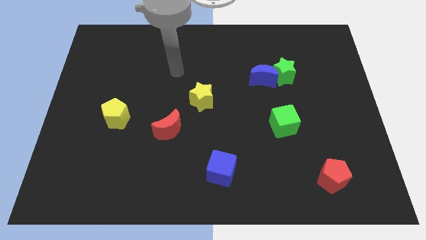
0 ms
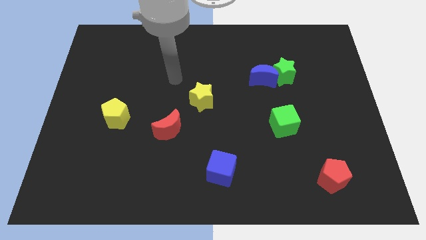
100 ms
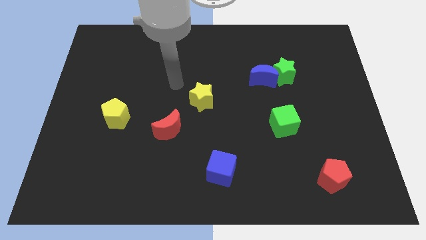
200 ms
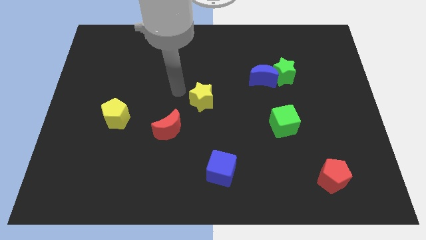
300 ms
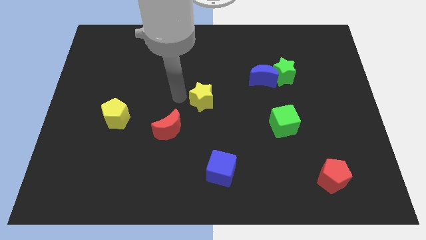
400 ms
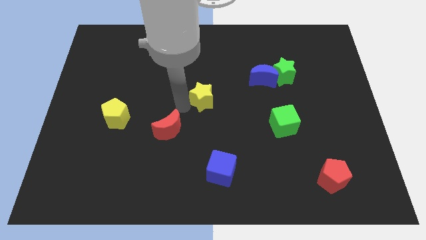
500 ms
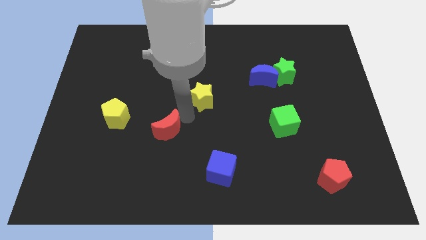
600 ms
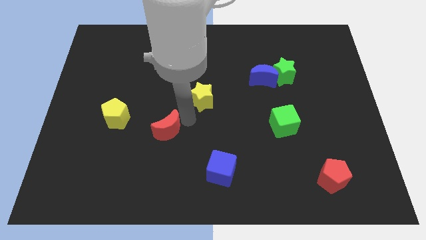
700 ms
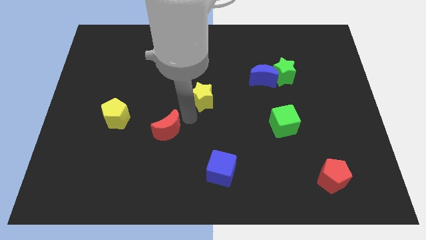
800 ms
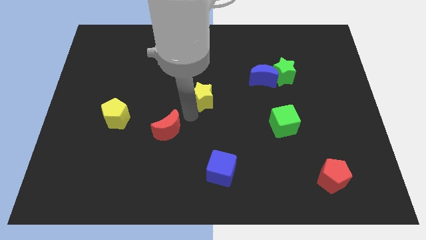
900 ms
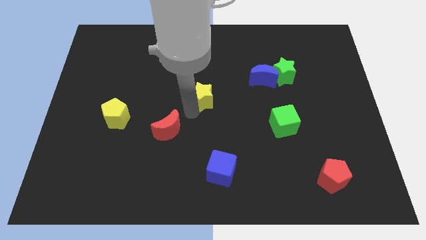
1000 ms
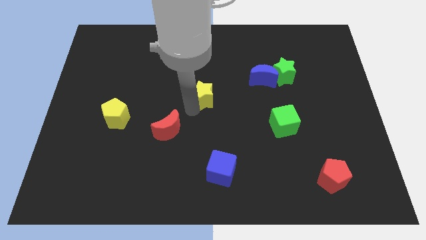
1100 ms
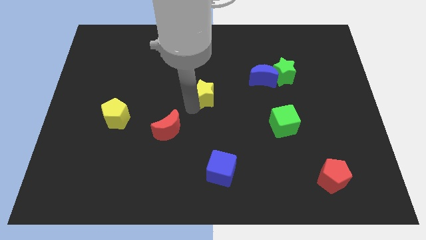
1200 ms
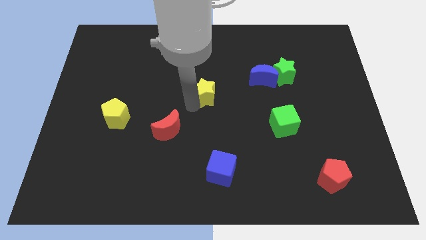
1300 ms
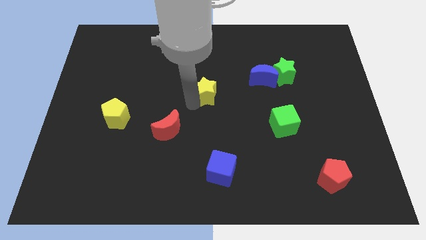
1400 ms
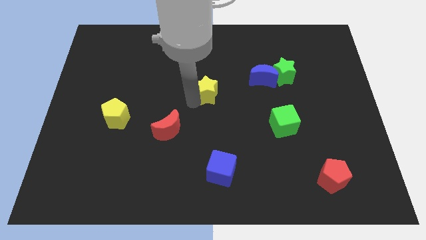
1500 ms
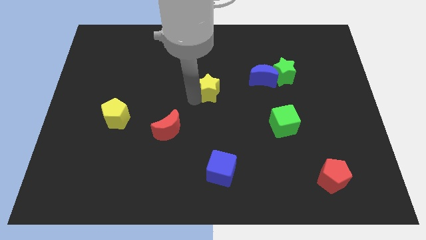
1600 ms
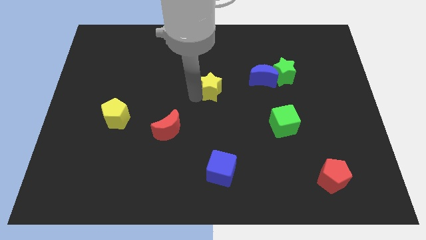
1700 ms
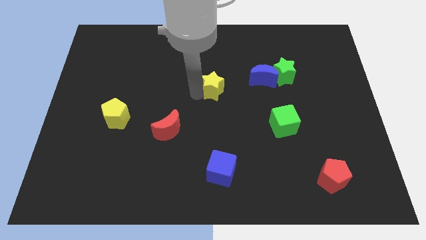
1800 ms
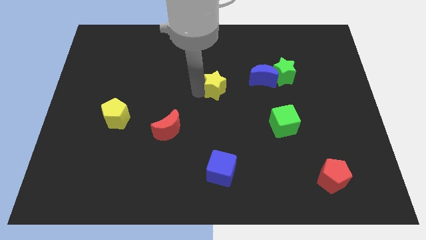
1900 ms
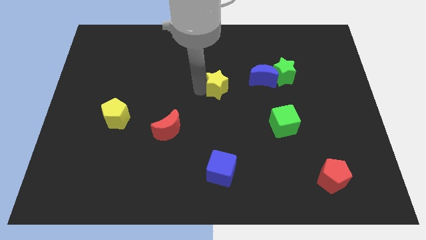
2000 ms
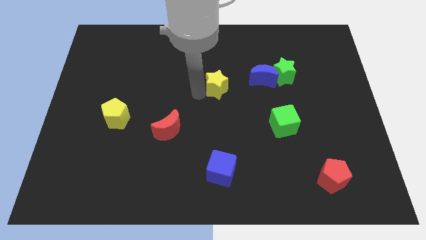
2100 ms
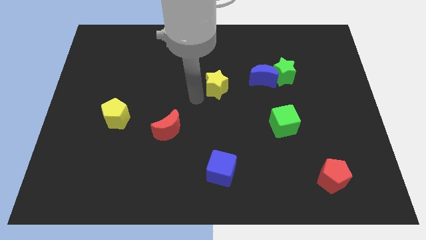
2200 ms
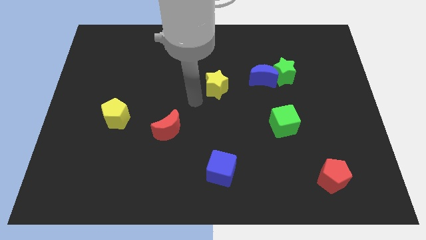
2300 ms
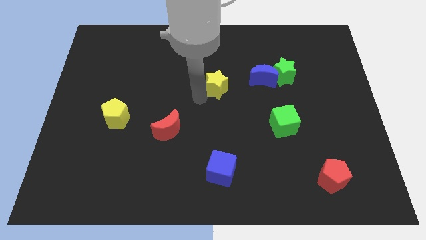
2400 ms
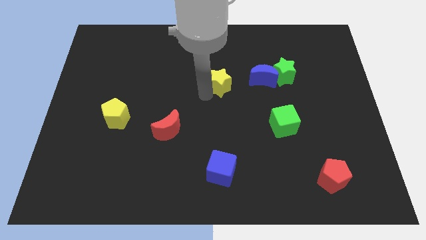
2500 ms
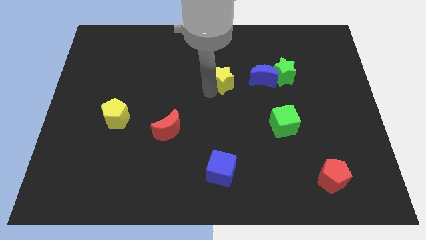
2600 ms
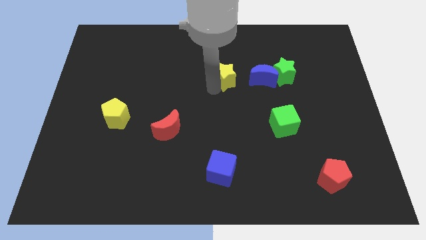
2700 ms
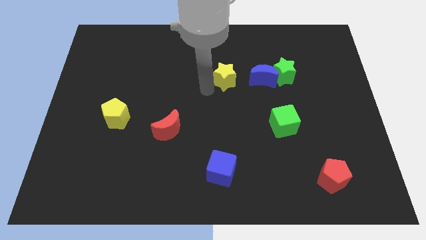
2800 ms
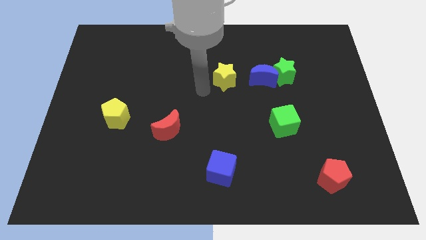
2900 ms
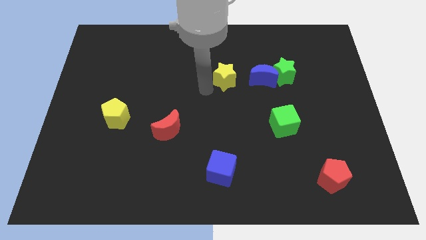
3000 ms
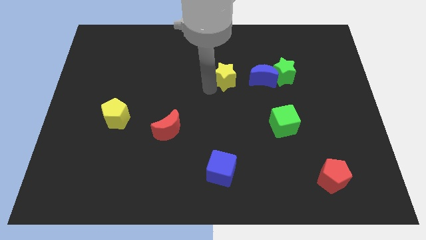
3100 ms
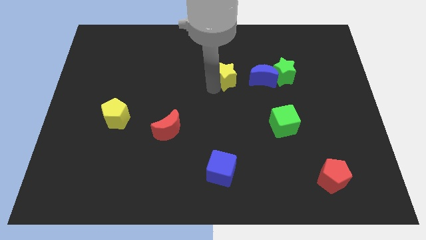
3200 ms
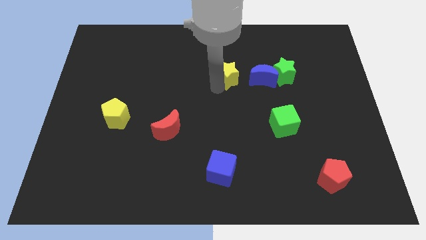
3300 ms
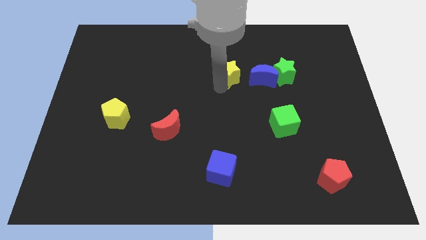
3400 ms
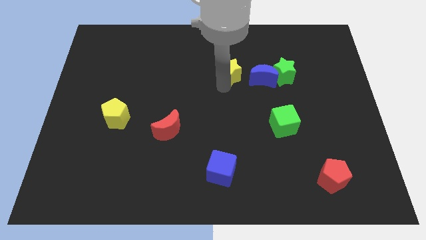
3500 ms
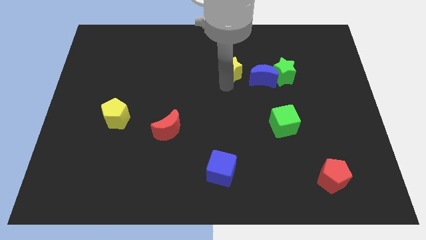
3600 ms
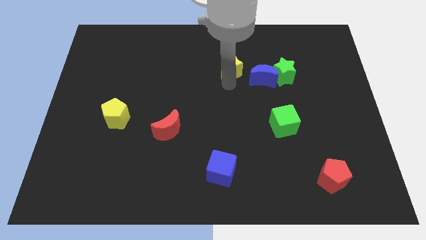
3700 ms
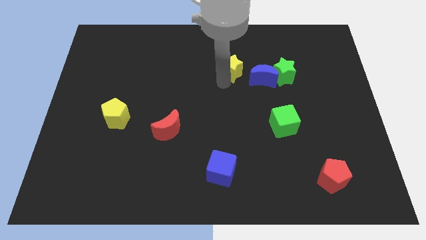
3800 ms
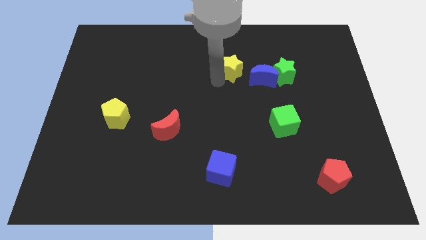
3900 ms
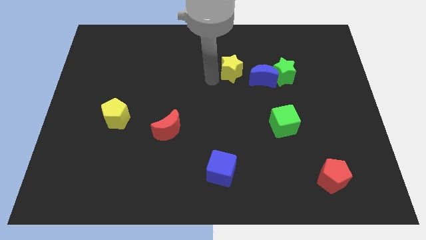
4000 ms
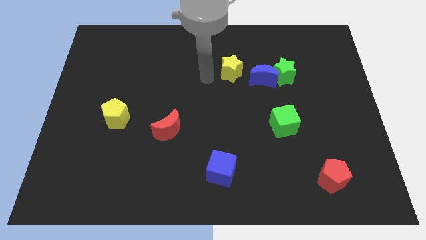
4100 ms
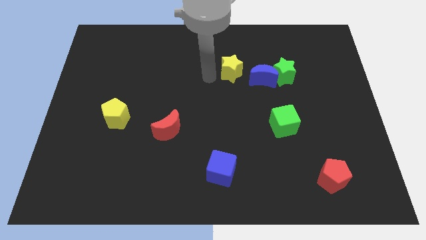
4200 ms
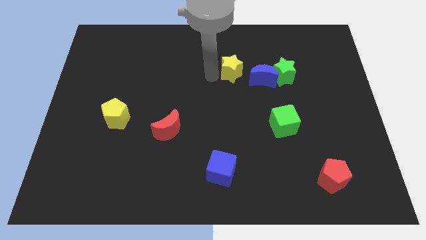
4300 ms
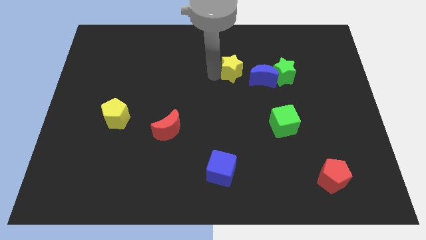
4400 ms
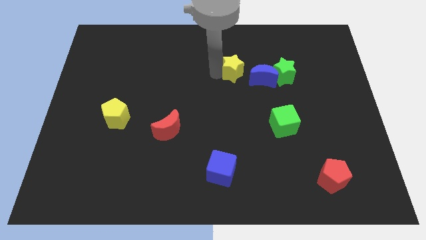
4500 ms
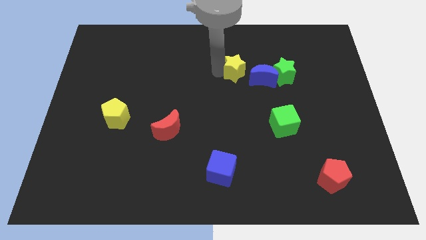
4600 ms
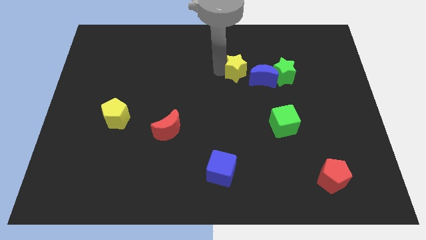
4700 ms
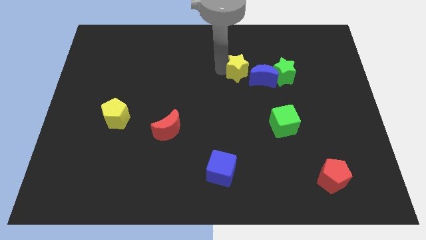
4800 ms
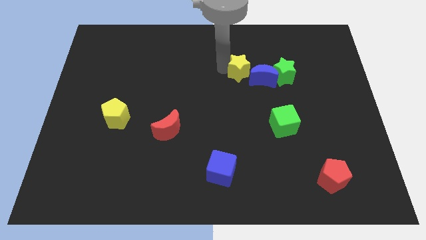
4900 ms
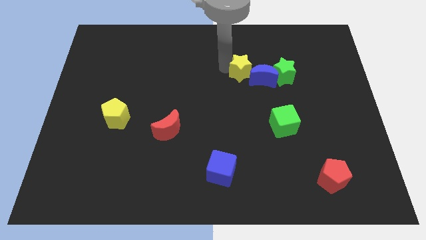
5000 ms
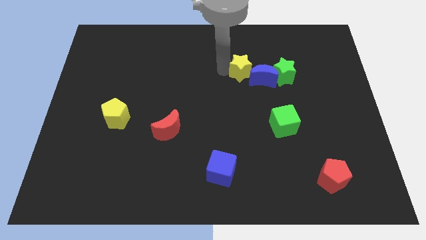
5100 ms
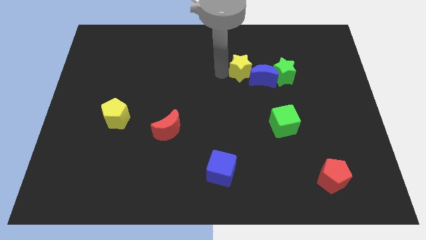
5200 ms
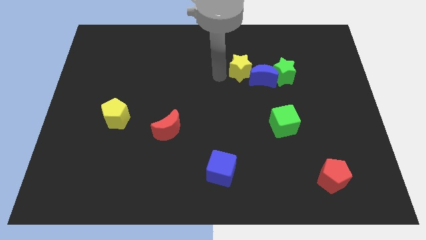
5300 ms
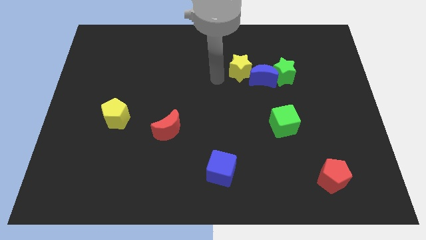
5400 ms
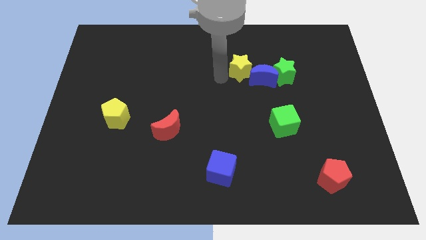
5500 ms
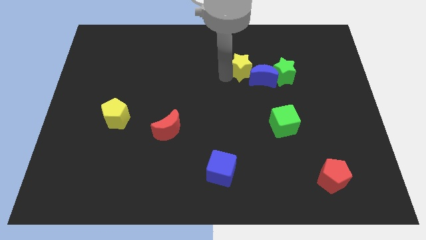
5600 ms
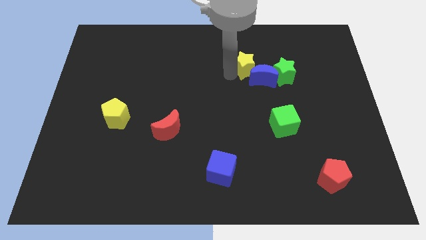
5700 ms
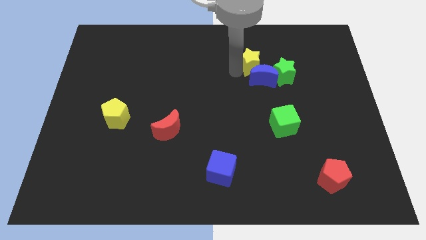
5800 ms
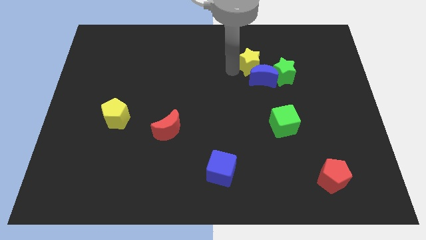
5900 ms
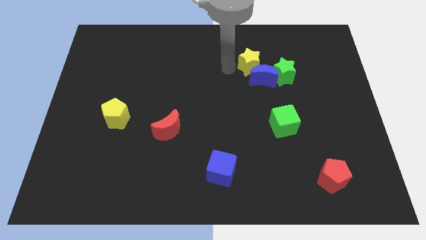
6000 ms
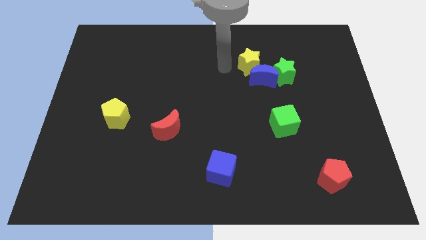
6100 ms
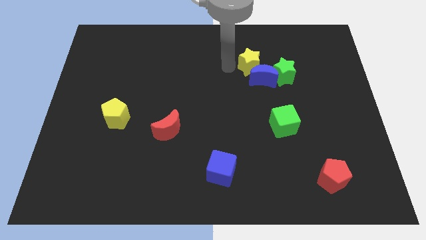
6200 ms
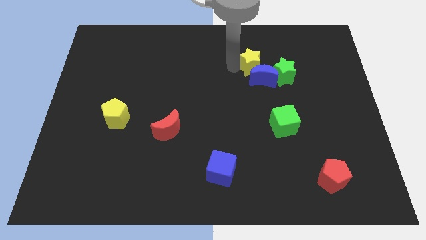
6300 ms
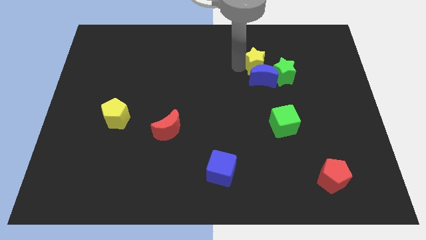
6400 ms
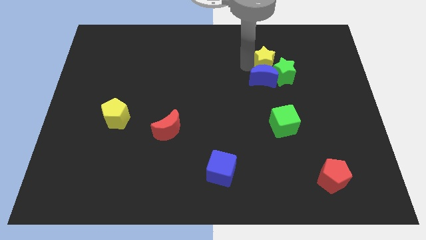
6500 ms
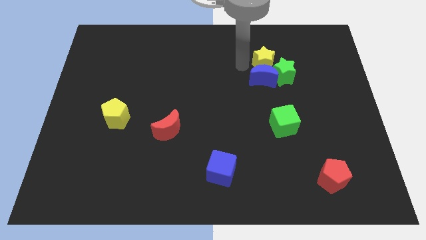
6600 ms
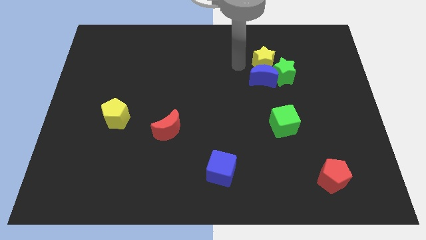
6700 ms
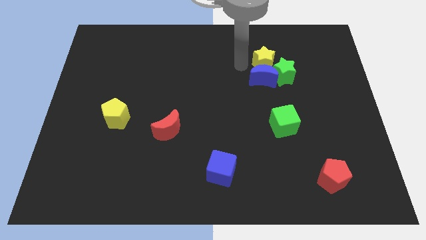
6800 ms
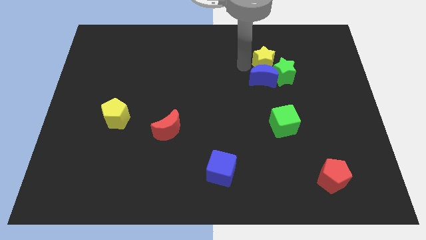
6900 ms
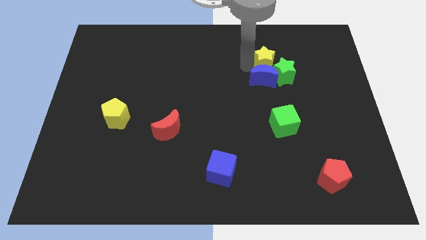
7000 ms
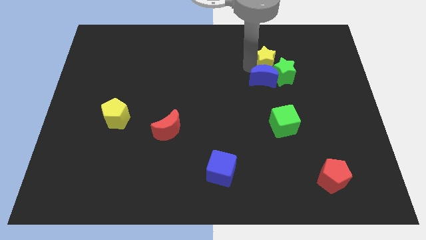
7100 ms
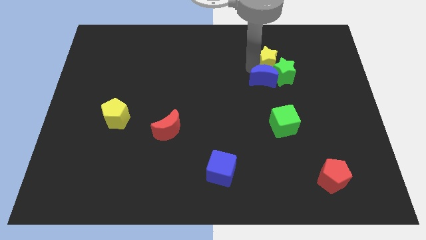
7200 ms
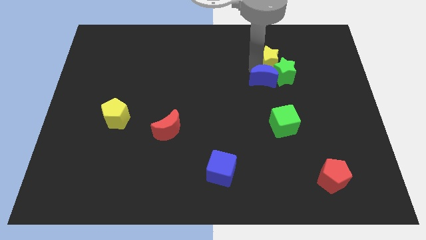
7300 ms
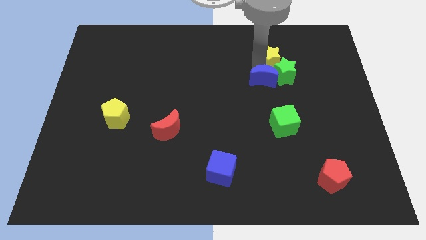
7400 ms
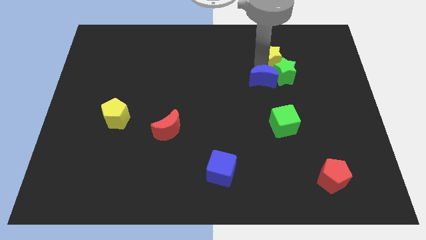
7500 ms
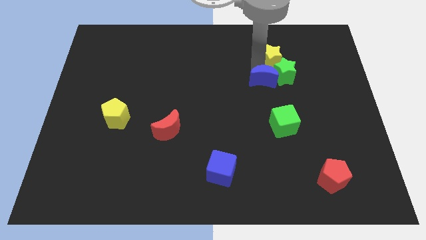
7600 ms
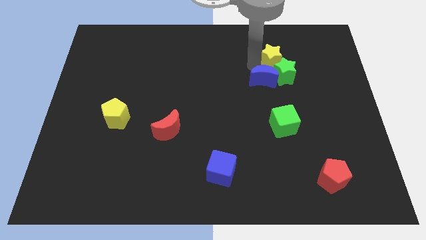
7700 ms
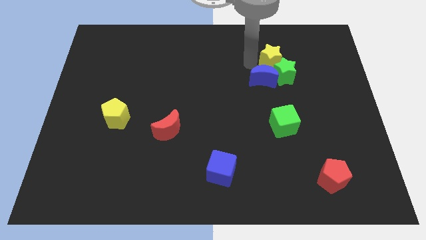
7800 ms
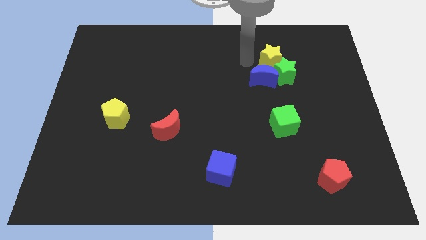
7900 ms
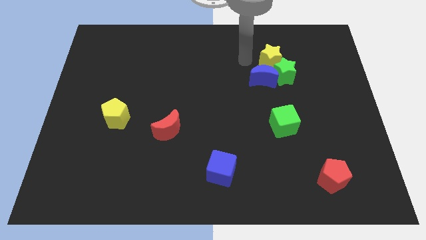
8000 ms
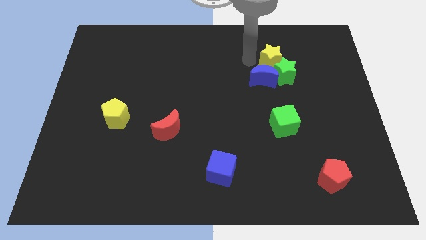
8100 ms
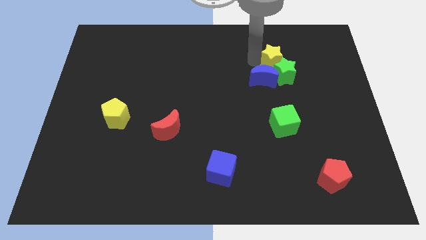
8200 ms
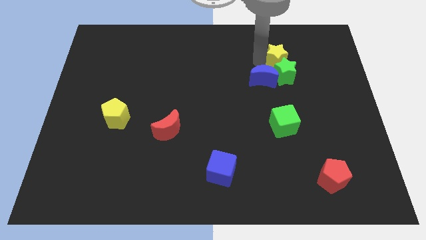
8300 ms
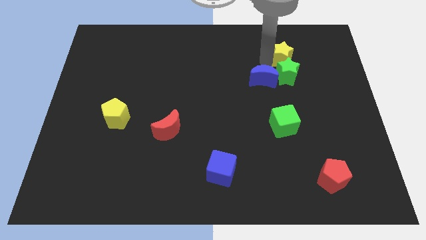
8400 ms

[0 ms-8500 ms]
move the yellow star diagonally up and to the right of the green star
